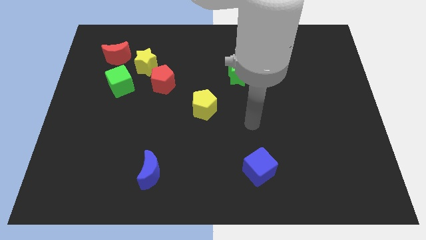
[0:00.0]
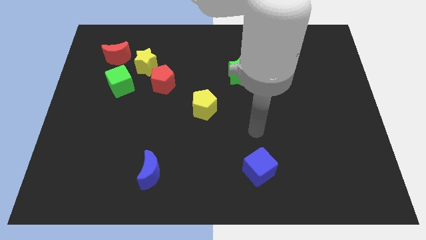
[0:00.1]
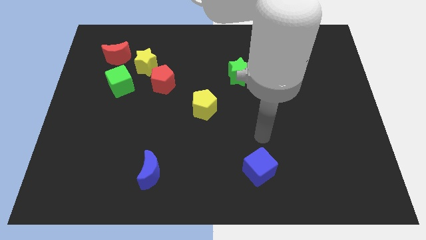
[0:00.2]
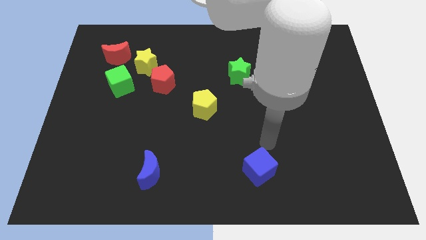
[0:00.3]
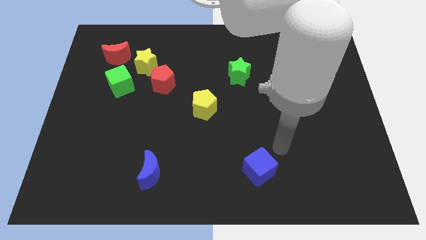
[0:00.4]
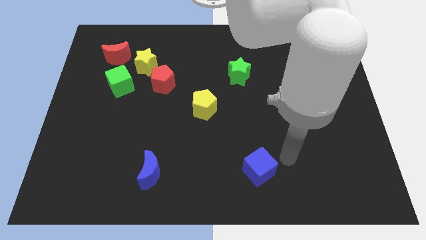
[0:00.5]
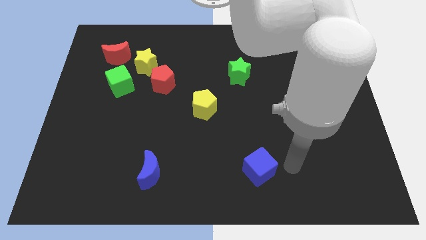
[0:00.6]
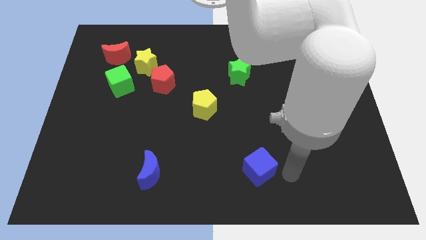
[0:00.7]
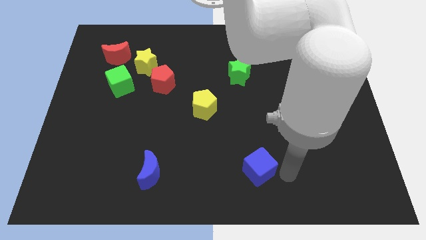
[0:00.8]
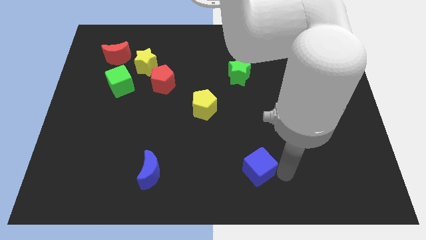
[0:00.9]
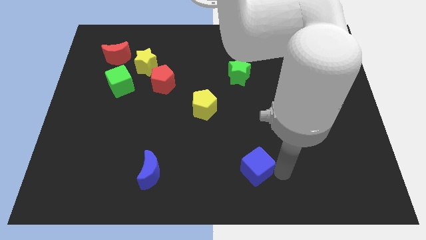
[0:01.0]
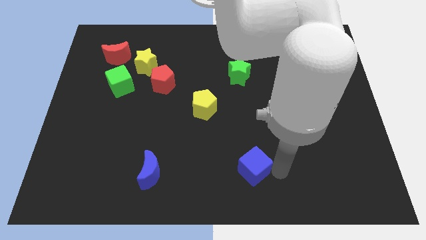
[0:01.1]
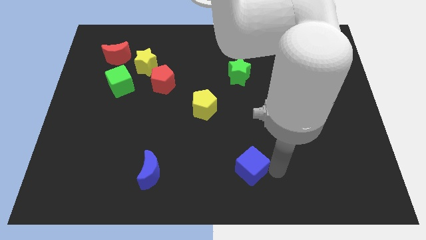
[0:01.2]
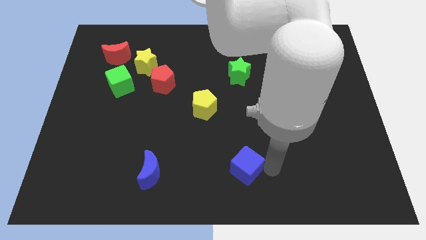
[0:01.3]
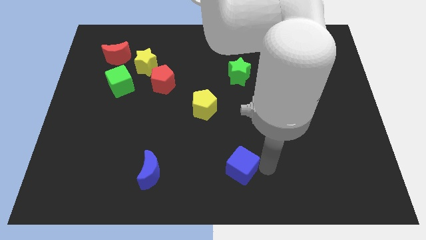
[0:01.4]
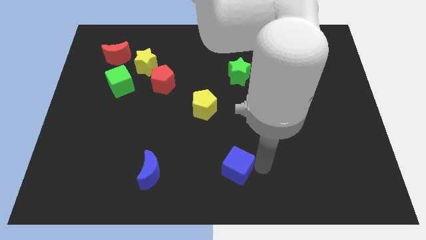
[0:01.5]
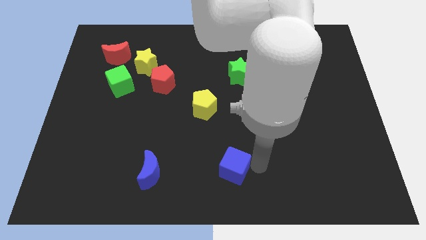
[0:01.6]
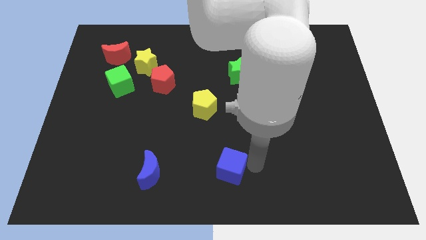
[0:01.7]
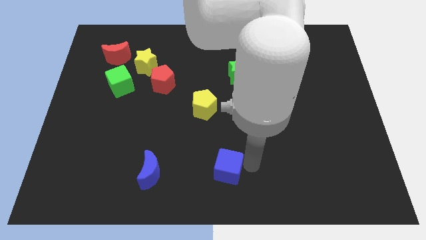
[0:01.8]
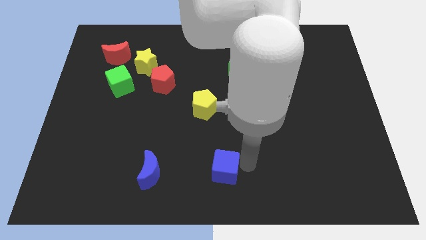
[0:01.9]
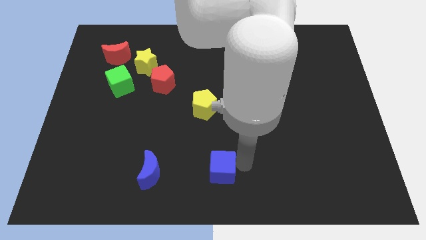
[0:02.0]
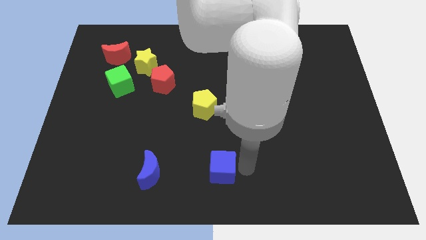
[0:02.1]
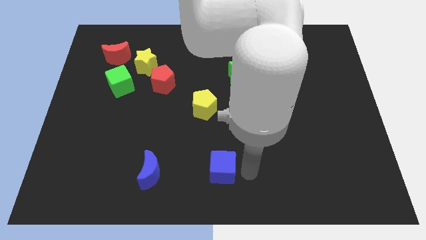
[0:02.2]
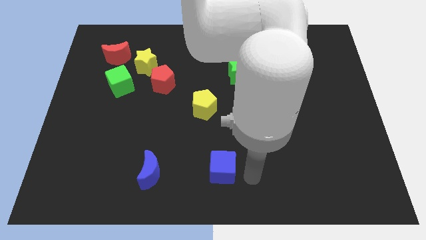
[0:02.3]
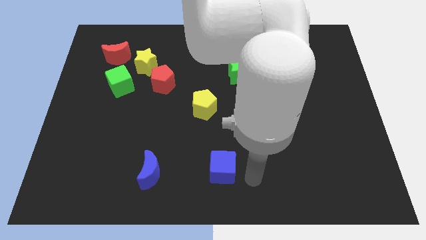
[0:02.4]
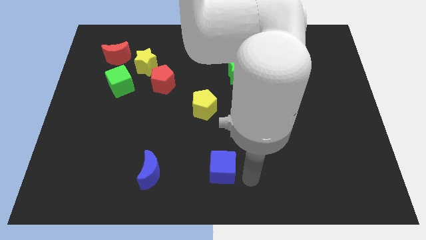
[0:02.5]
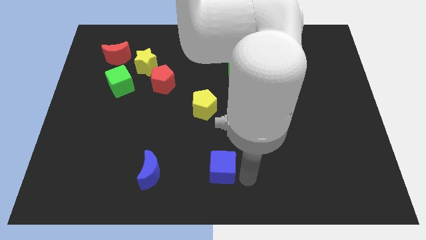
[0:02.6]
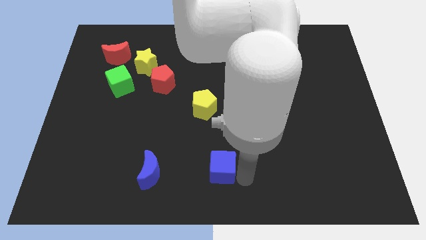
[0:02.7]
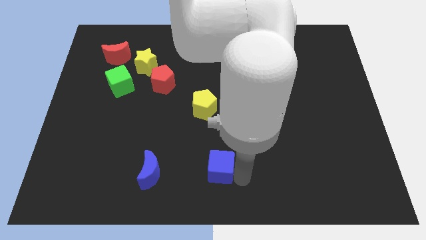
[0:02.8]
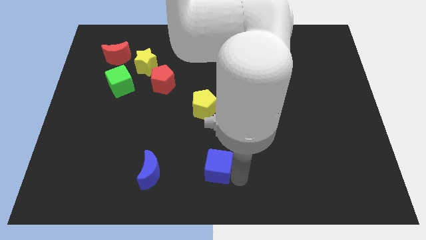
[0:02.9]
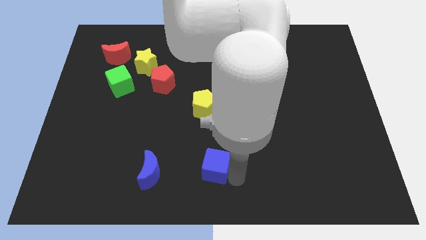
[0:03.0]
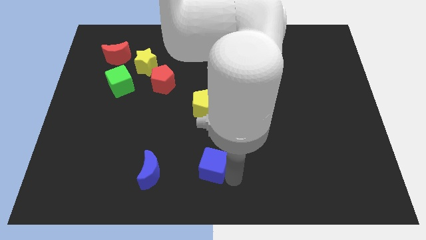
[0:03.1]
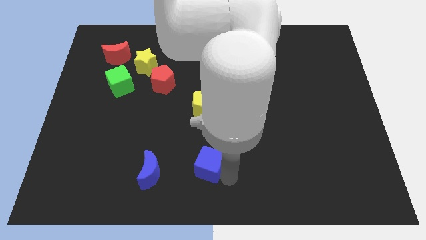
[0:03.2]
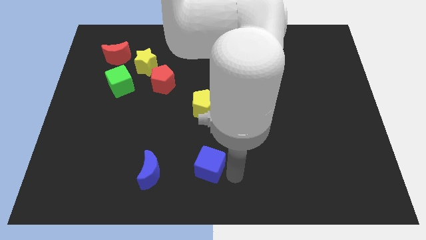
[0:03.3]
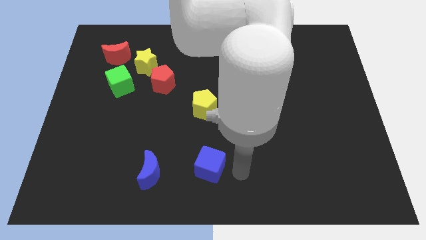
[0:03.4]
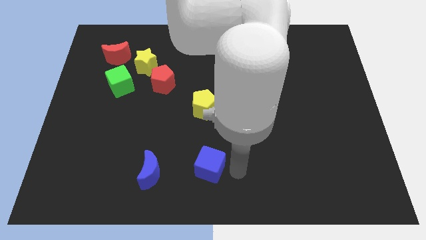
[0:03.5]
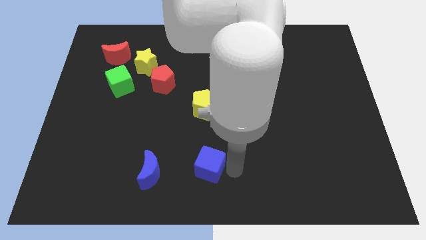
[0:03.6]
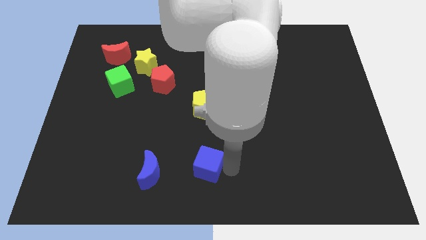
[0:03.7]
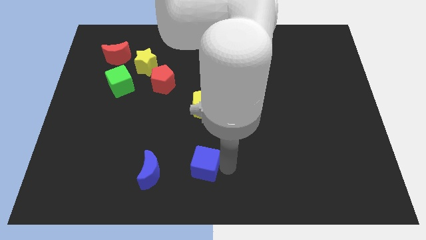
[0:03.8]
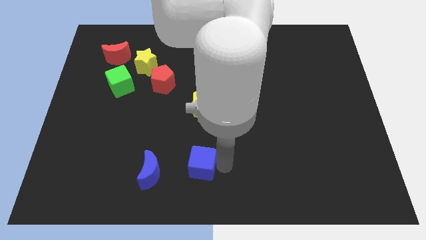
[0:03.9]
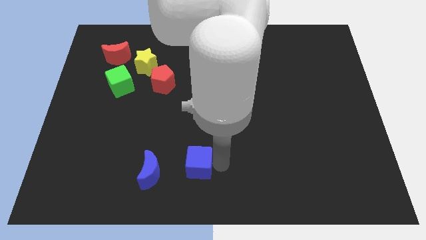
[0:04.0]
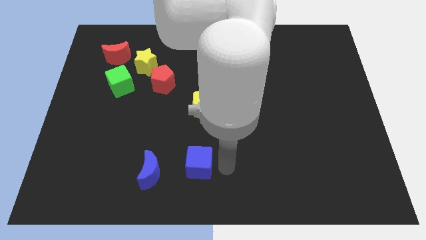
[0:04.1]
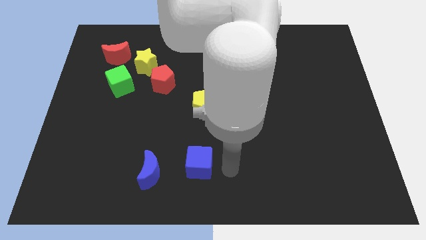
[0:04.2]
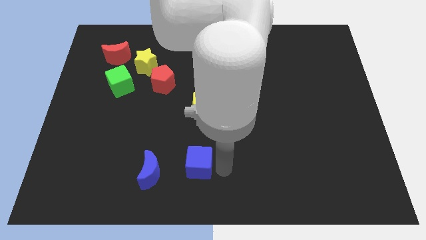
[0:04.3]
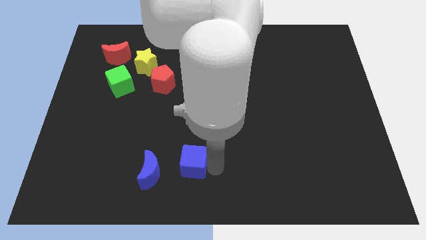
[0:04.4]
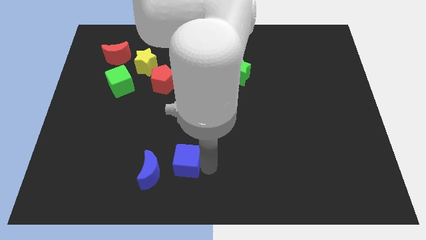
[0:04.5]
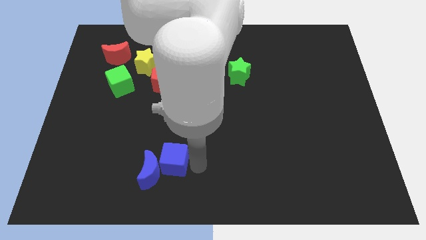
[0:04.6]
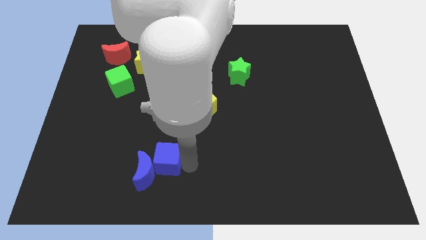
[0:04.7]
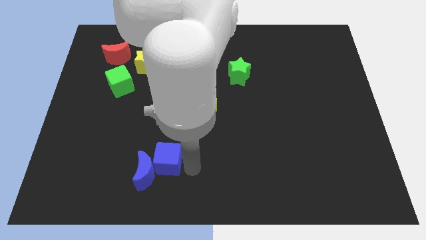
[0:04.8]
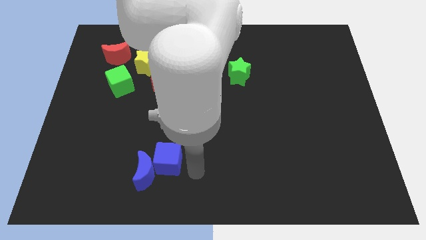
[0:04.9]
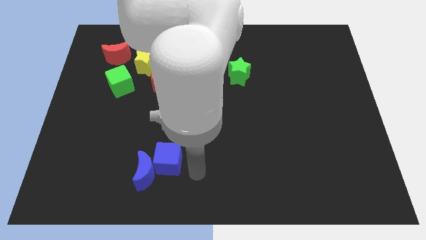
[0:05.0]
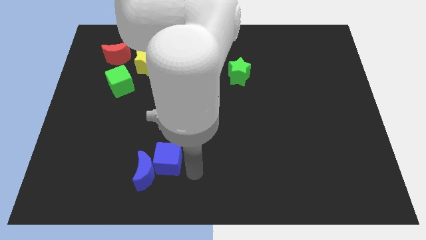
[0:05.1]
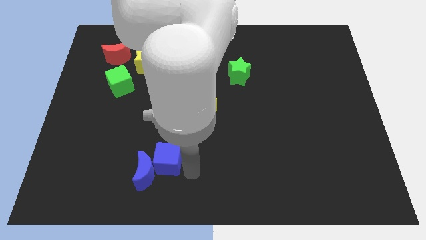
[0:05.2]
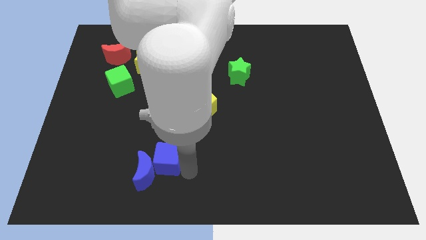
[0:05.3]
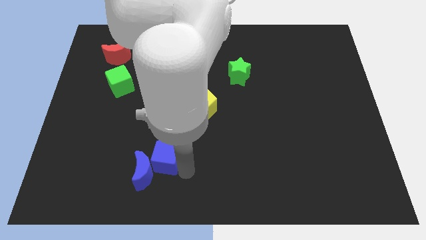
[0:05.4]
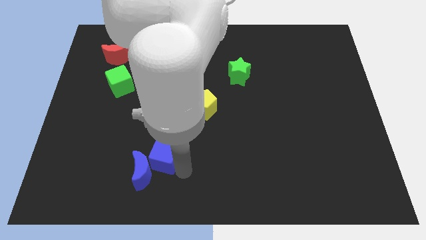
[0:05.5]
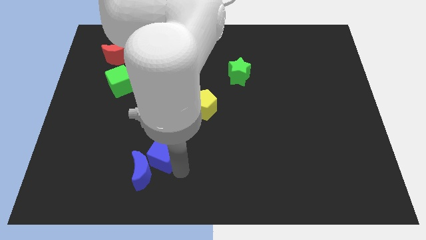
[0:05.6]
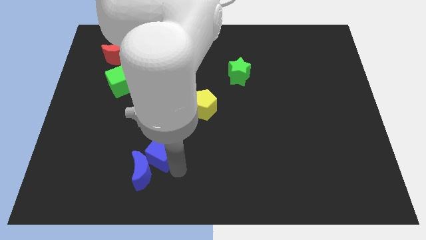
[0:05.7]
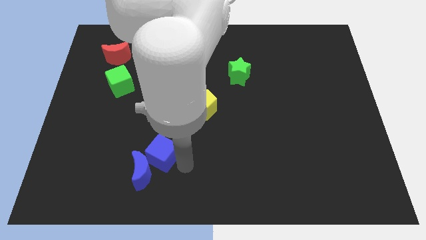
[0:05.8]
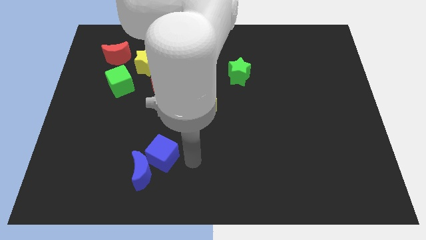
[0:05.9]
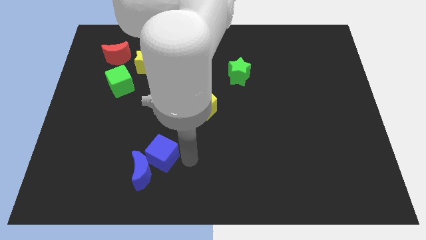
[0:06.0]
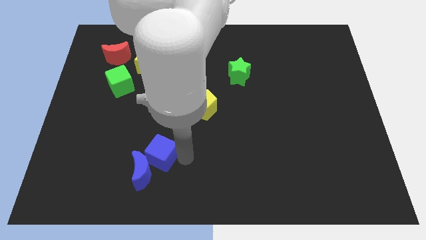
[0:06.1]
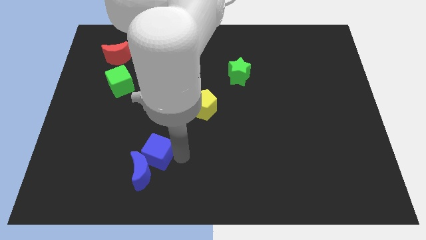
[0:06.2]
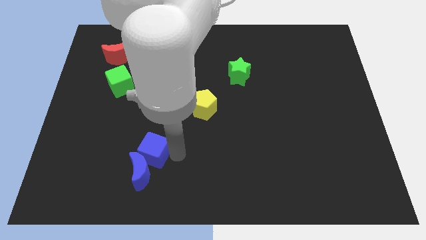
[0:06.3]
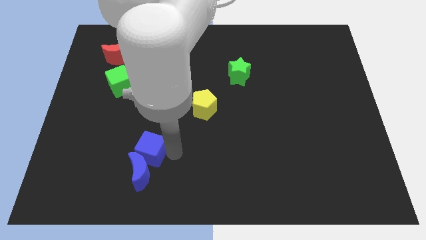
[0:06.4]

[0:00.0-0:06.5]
move the blue cube diagonally up and to the left of the blue moon
